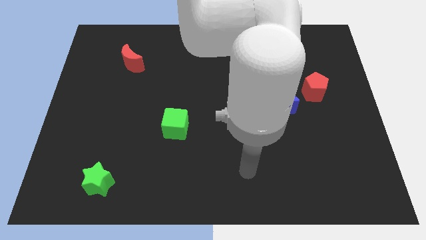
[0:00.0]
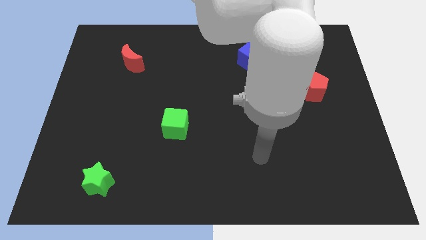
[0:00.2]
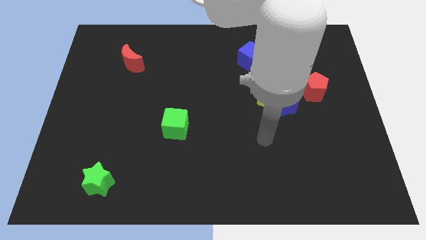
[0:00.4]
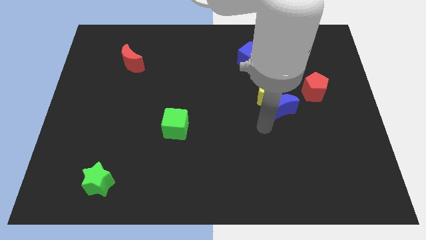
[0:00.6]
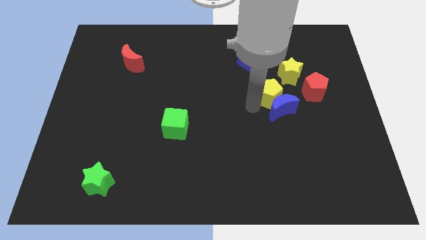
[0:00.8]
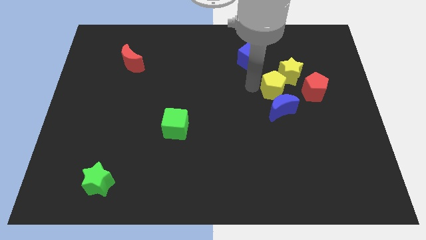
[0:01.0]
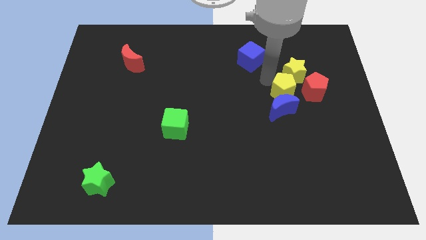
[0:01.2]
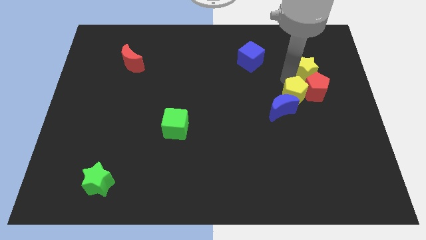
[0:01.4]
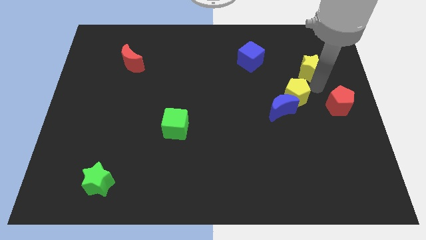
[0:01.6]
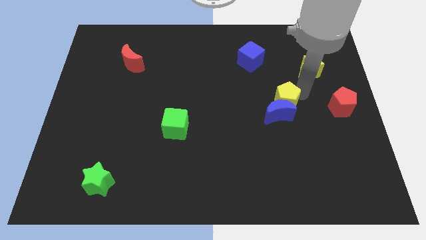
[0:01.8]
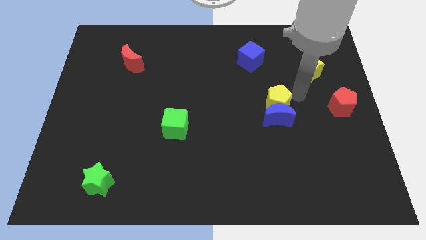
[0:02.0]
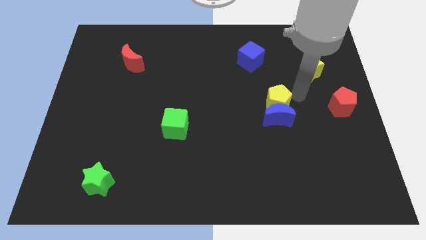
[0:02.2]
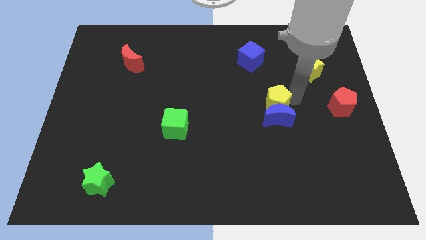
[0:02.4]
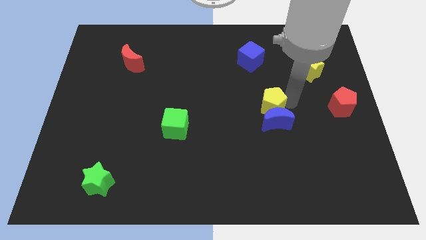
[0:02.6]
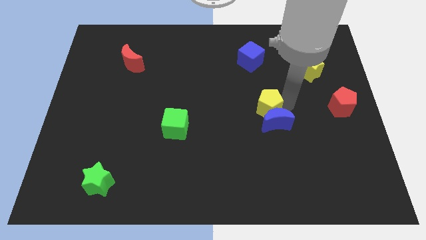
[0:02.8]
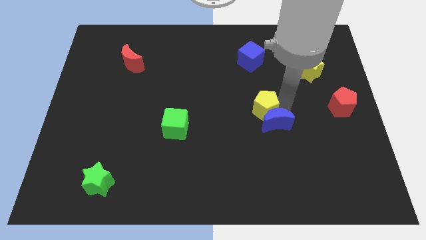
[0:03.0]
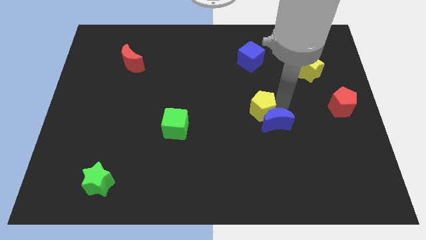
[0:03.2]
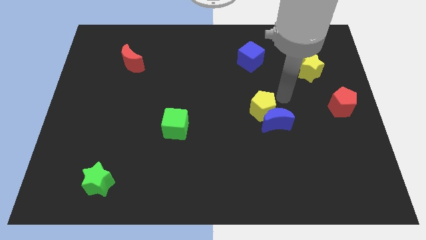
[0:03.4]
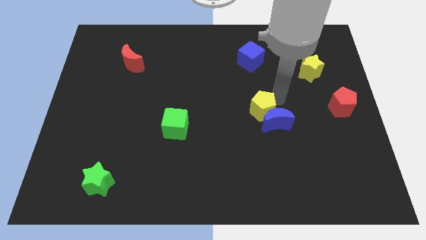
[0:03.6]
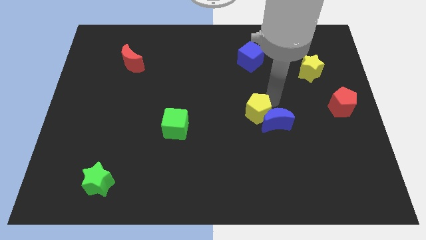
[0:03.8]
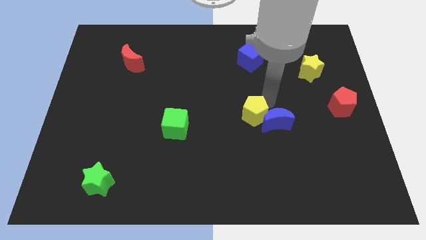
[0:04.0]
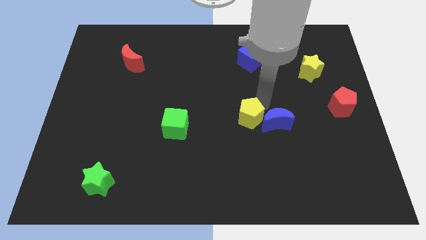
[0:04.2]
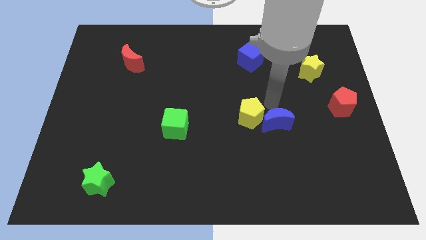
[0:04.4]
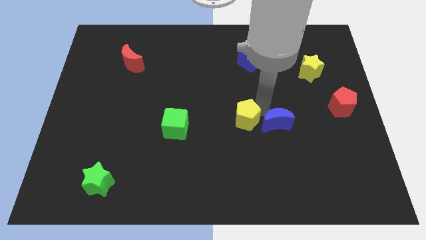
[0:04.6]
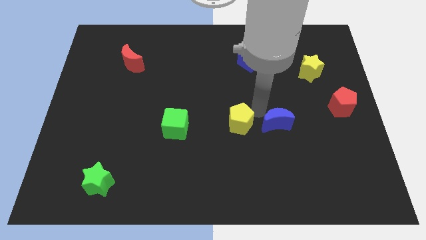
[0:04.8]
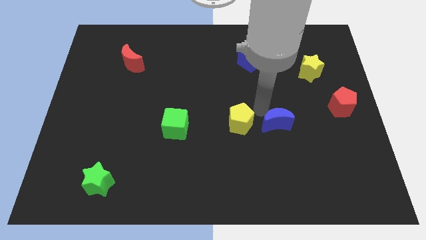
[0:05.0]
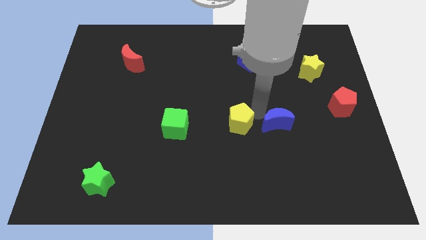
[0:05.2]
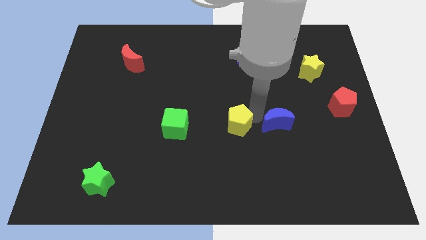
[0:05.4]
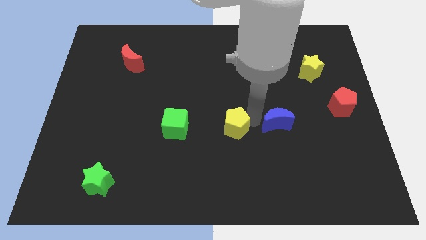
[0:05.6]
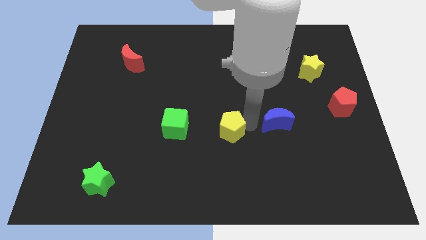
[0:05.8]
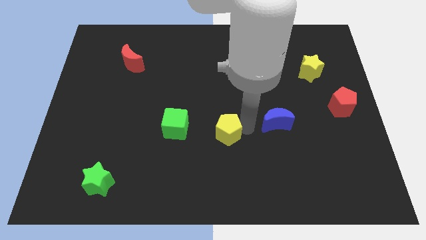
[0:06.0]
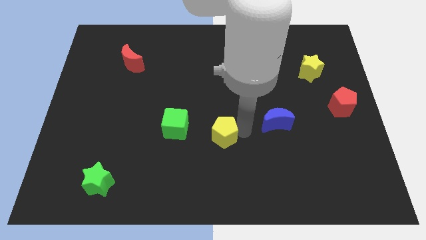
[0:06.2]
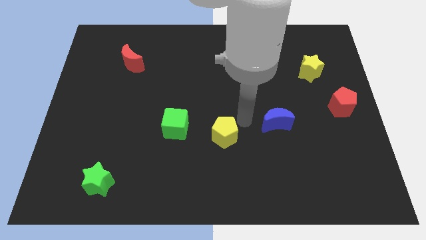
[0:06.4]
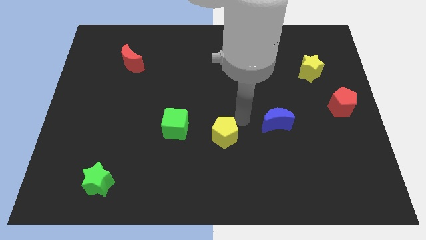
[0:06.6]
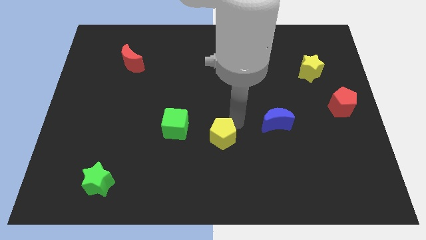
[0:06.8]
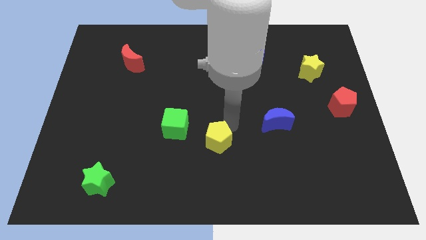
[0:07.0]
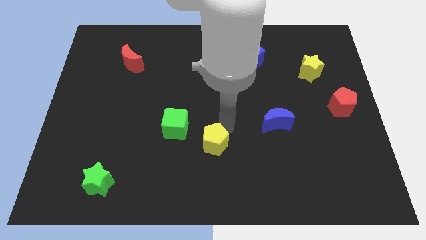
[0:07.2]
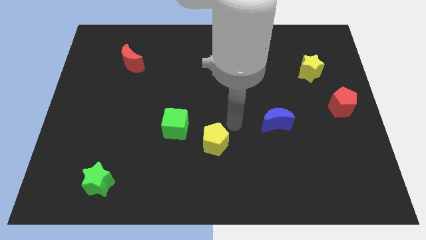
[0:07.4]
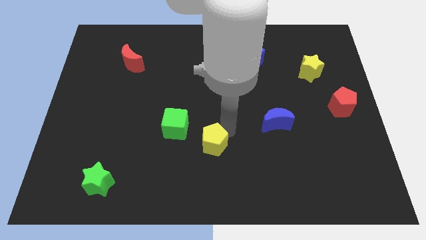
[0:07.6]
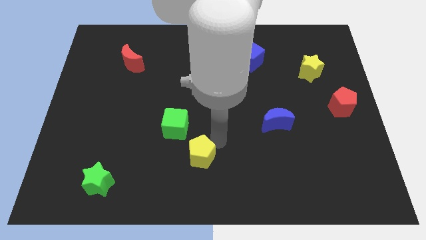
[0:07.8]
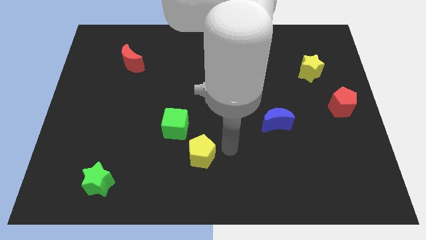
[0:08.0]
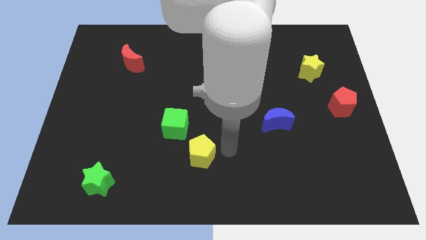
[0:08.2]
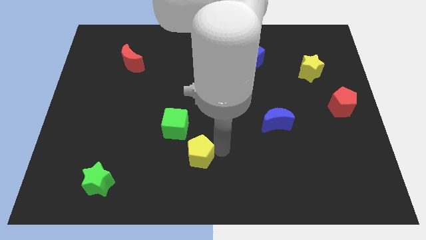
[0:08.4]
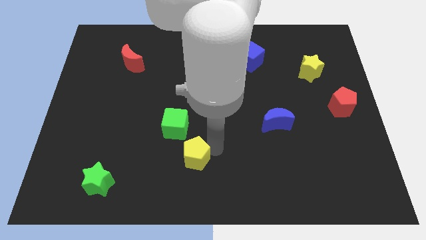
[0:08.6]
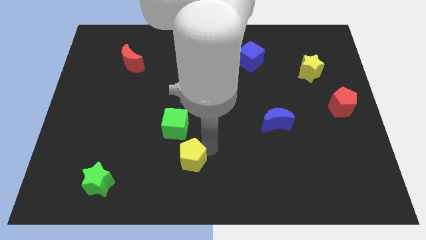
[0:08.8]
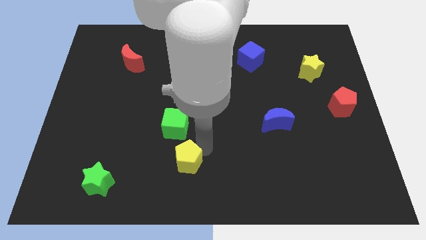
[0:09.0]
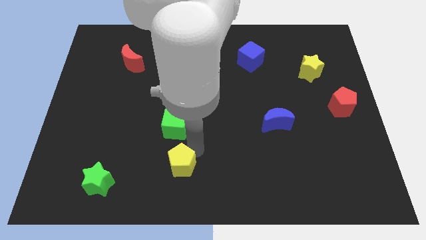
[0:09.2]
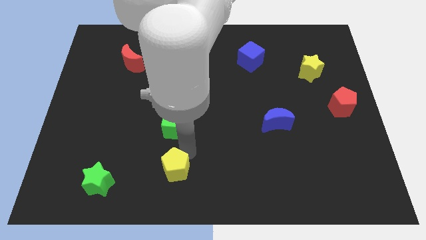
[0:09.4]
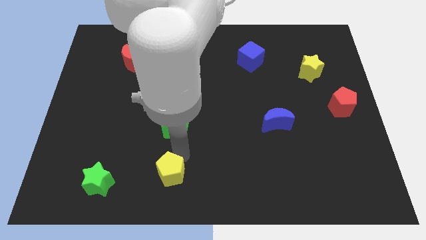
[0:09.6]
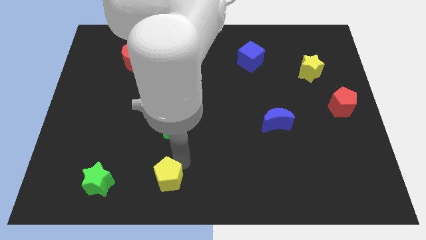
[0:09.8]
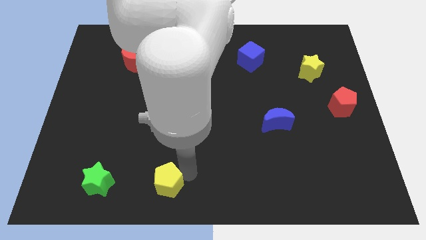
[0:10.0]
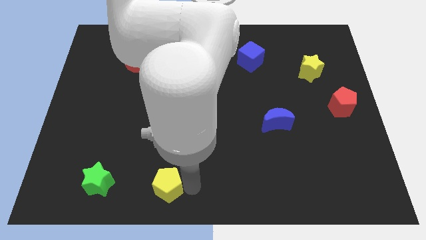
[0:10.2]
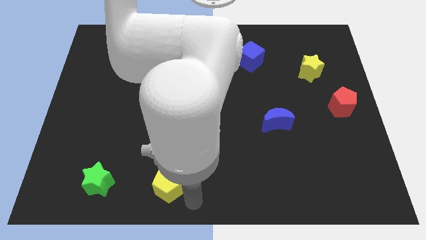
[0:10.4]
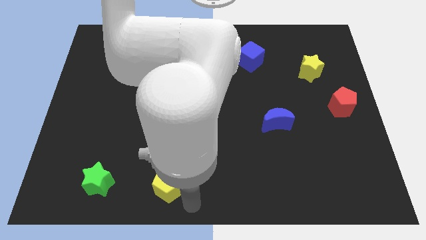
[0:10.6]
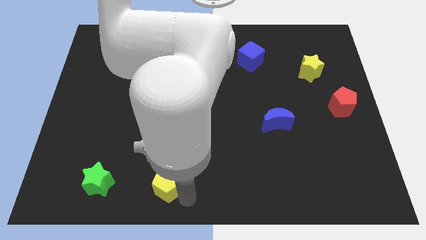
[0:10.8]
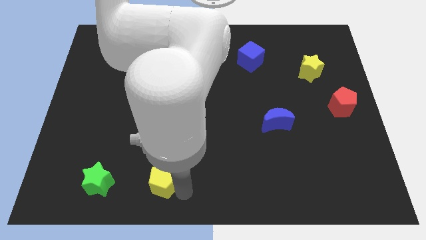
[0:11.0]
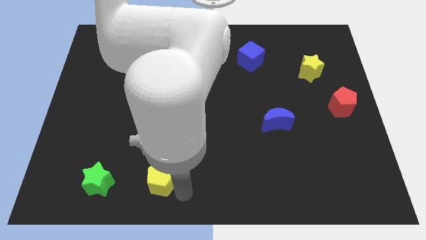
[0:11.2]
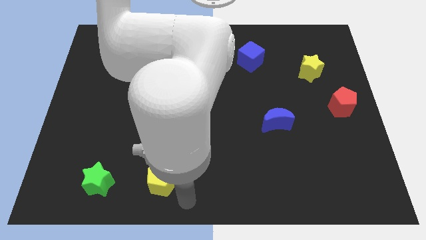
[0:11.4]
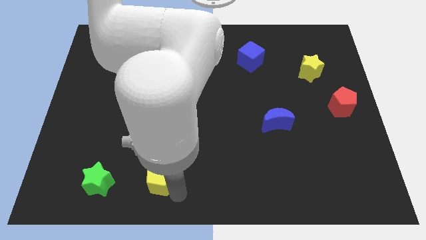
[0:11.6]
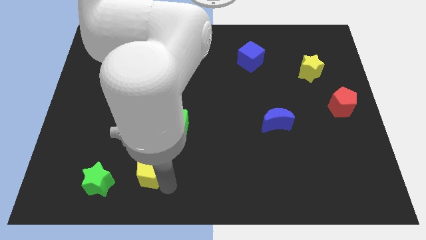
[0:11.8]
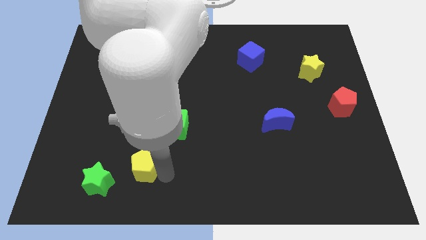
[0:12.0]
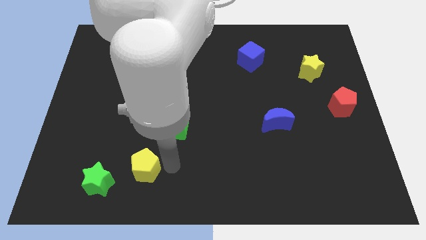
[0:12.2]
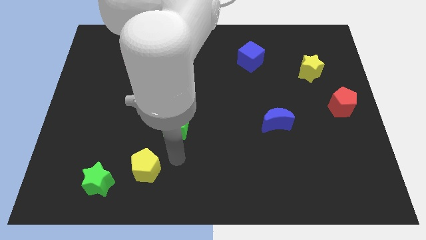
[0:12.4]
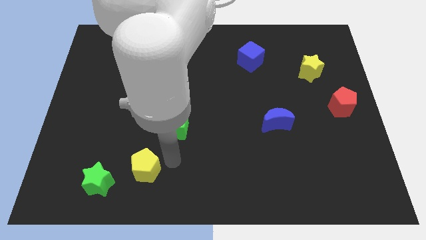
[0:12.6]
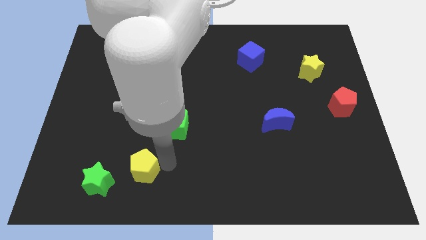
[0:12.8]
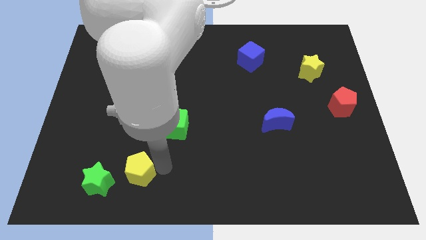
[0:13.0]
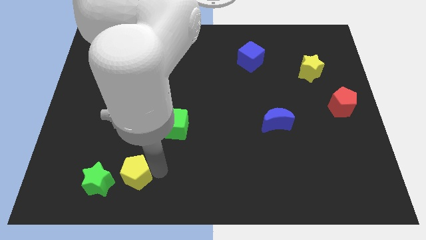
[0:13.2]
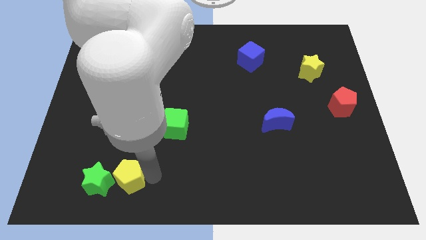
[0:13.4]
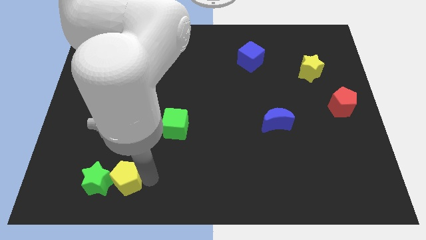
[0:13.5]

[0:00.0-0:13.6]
push the yellow pentagon to the green star
